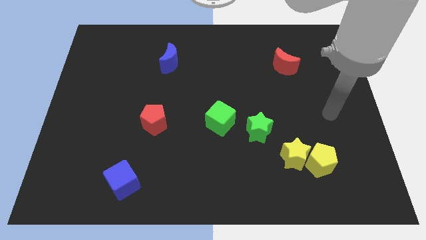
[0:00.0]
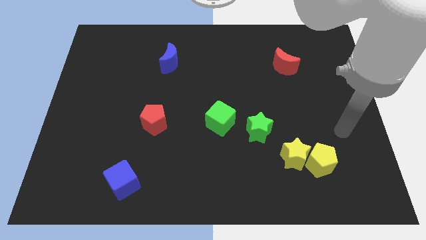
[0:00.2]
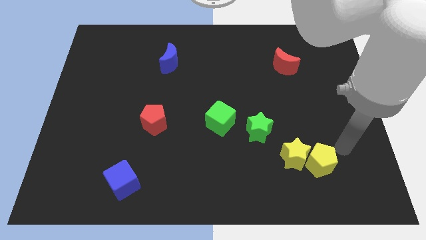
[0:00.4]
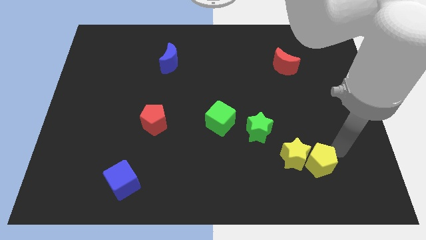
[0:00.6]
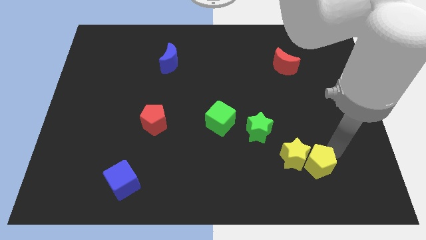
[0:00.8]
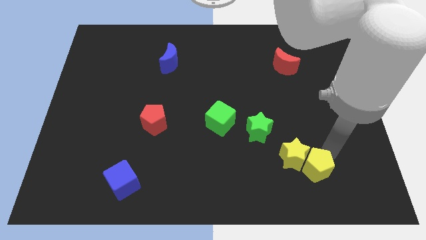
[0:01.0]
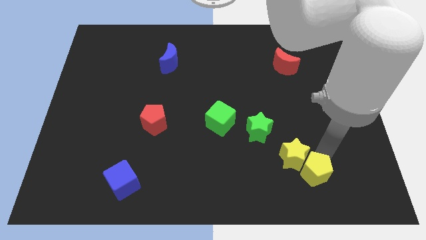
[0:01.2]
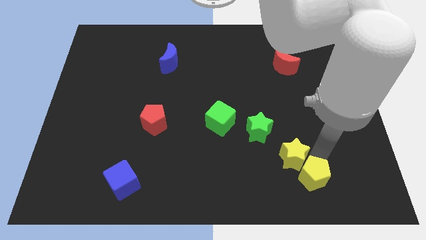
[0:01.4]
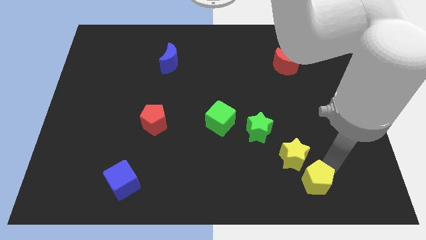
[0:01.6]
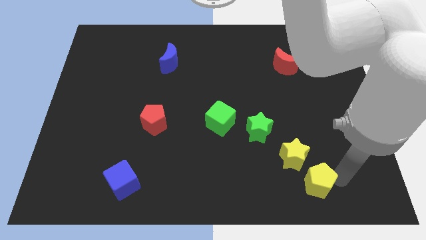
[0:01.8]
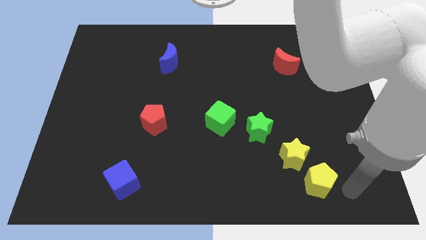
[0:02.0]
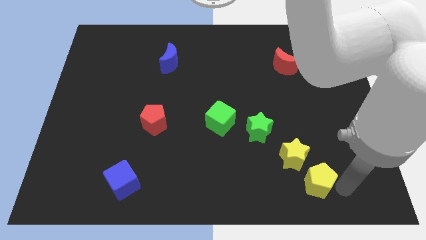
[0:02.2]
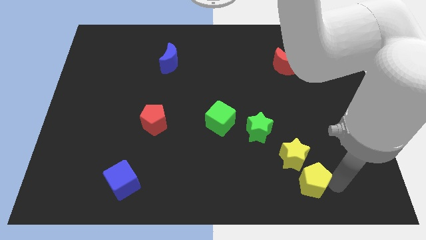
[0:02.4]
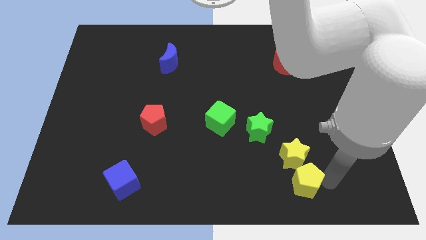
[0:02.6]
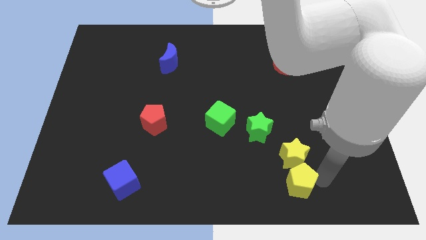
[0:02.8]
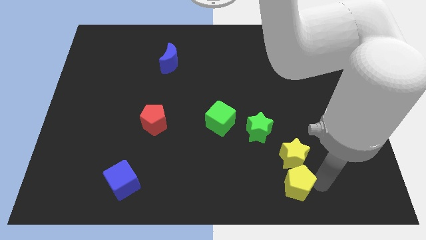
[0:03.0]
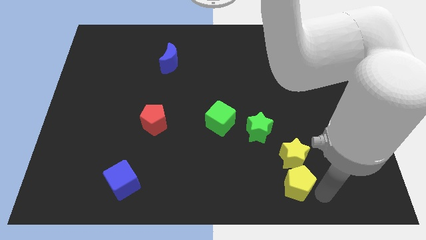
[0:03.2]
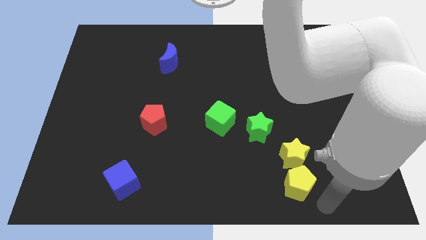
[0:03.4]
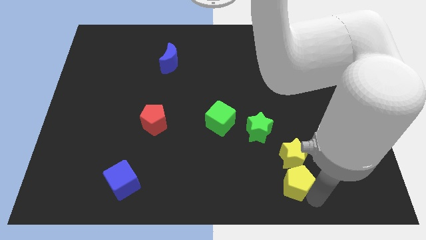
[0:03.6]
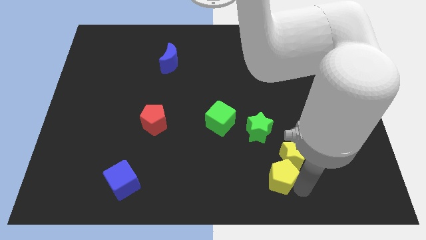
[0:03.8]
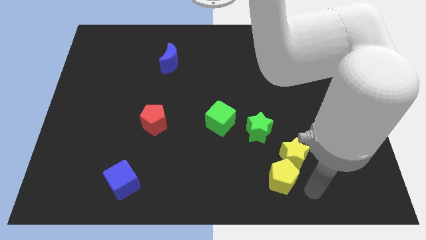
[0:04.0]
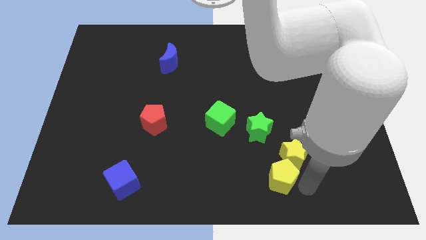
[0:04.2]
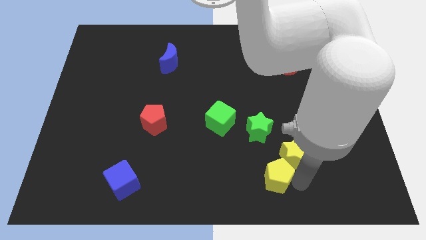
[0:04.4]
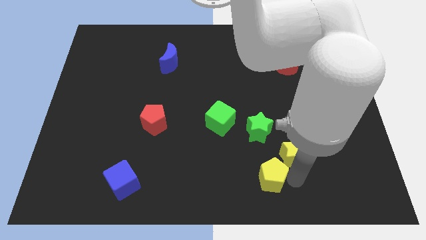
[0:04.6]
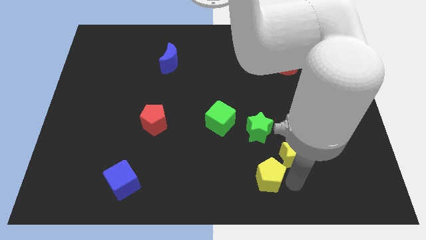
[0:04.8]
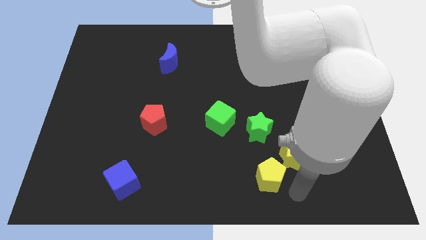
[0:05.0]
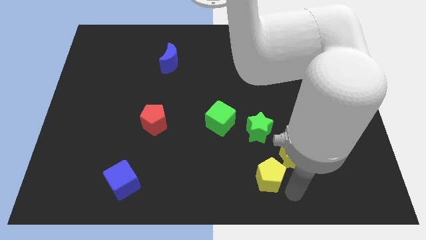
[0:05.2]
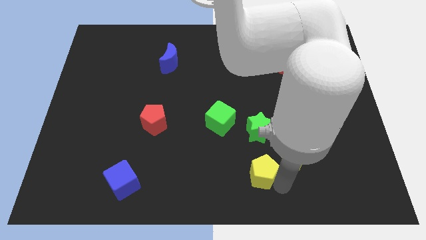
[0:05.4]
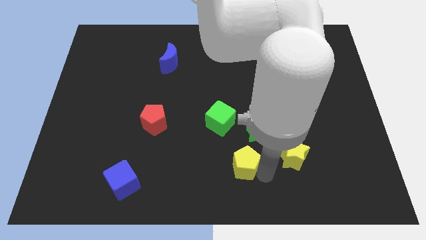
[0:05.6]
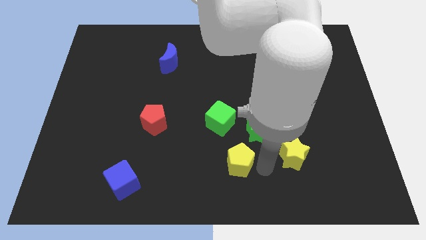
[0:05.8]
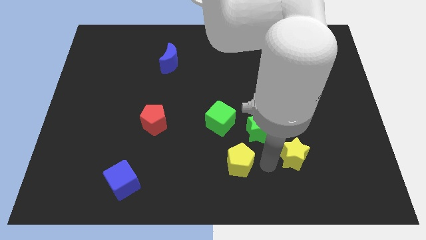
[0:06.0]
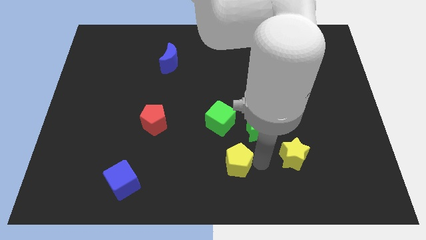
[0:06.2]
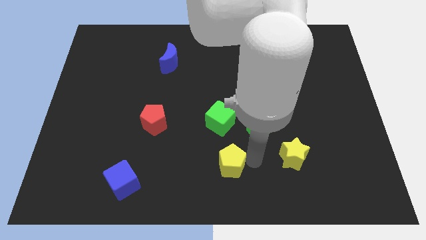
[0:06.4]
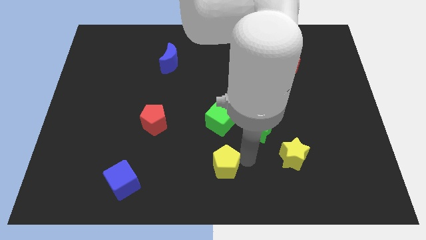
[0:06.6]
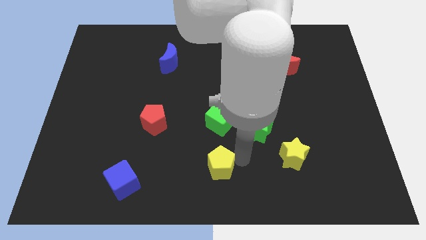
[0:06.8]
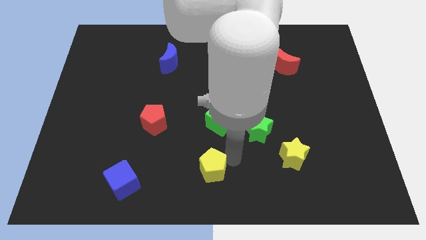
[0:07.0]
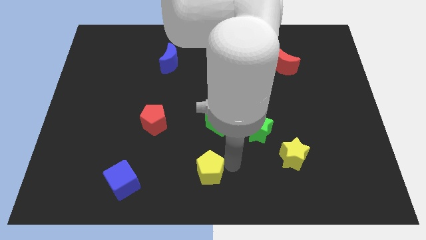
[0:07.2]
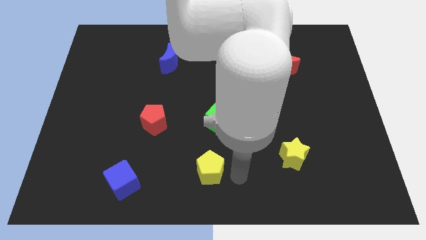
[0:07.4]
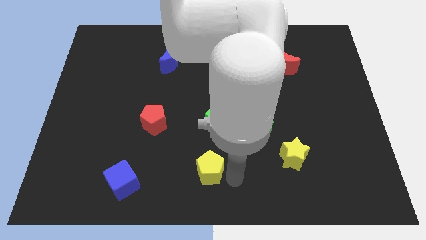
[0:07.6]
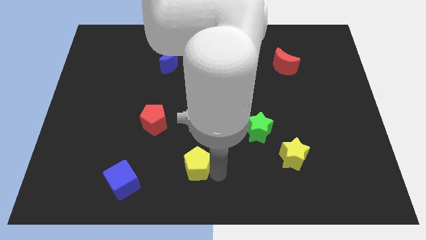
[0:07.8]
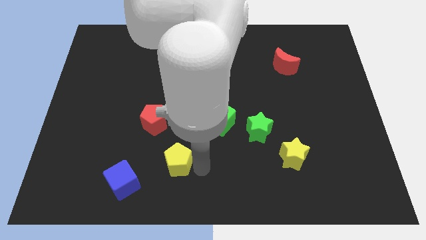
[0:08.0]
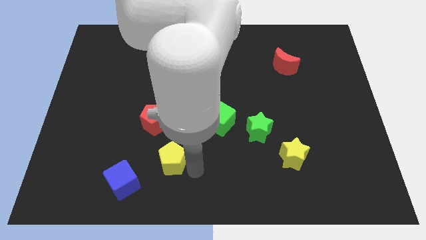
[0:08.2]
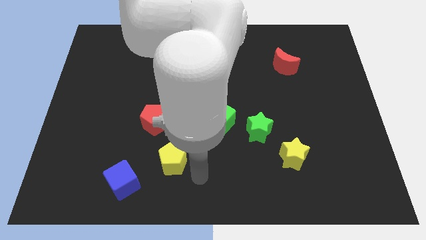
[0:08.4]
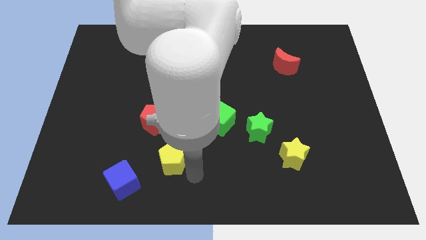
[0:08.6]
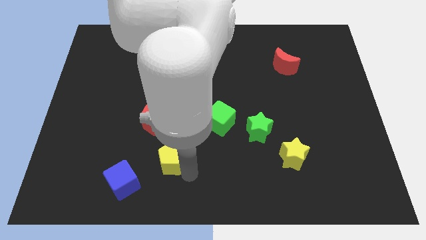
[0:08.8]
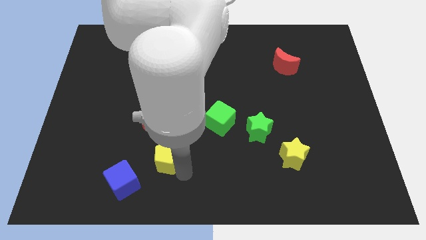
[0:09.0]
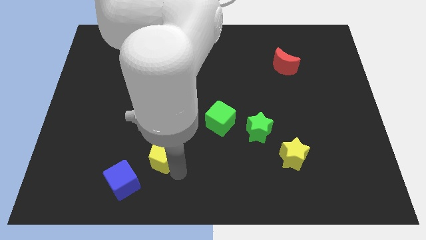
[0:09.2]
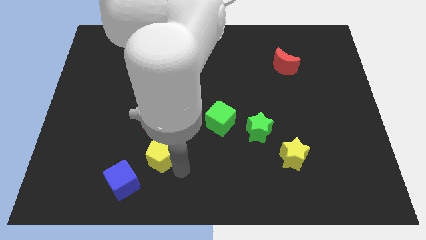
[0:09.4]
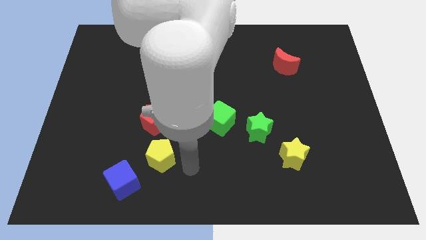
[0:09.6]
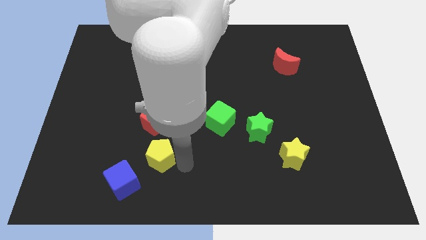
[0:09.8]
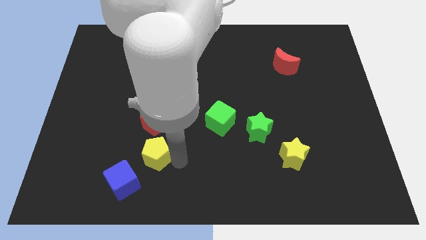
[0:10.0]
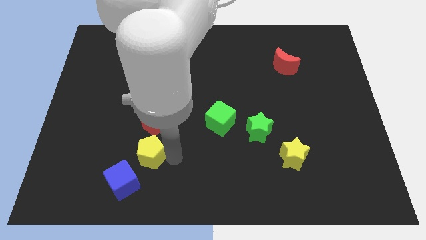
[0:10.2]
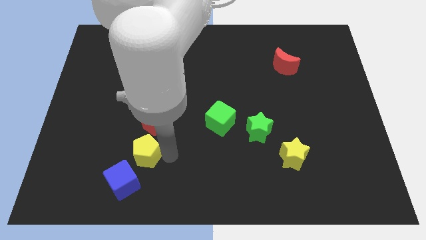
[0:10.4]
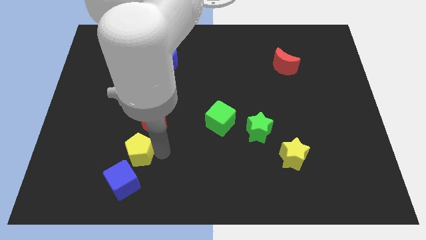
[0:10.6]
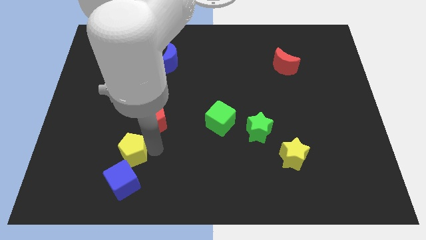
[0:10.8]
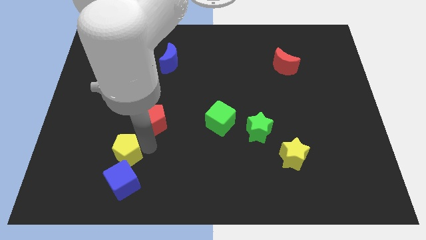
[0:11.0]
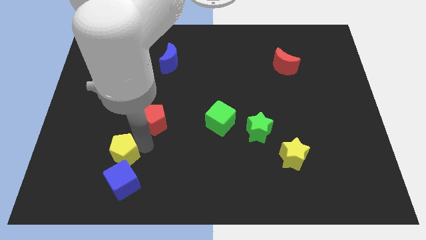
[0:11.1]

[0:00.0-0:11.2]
push the yellow pentagon to the top left side of the blue cube

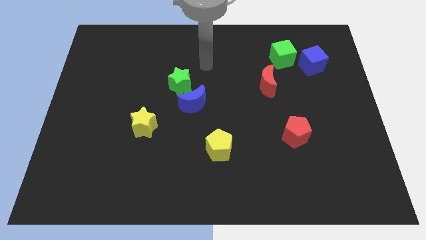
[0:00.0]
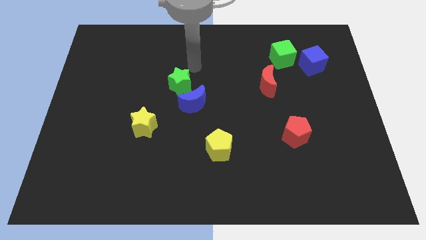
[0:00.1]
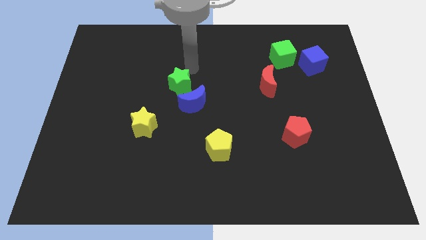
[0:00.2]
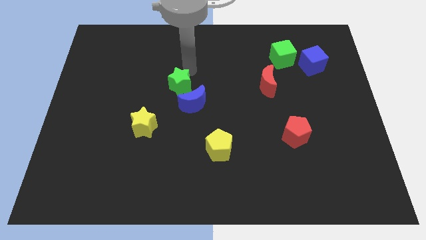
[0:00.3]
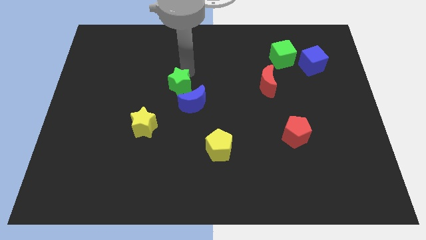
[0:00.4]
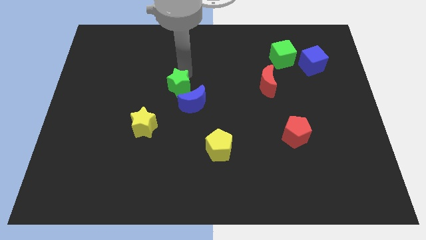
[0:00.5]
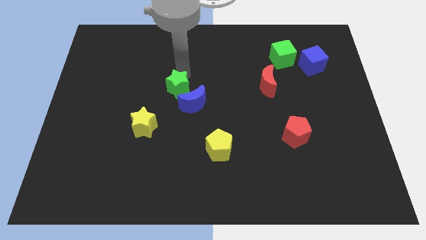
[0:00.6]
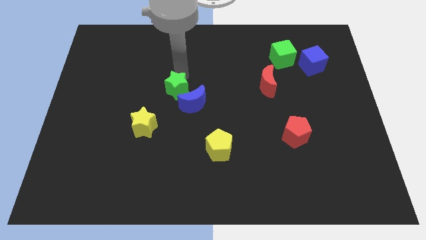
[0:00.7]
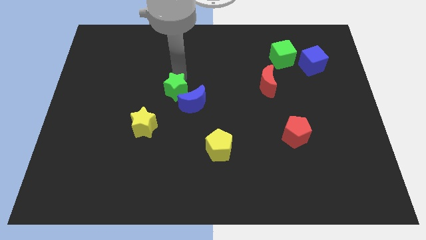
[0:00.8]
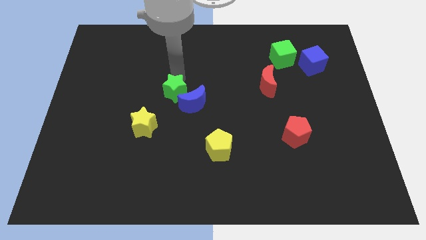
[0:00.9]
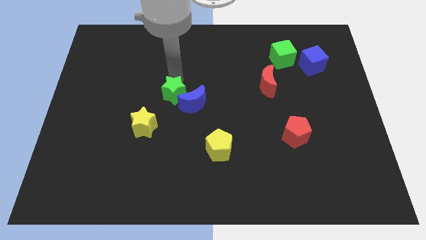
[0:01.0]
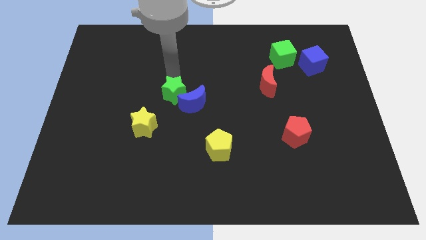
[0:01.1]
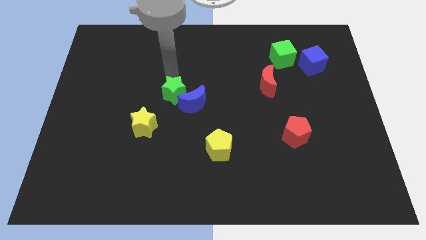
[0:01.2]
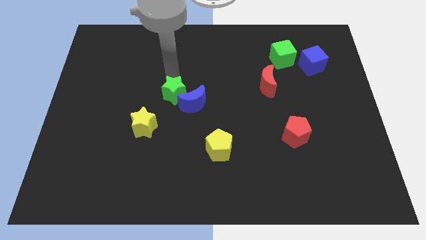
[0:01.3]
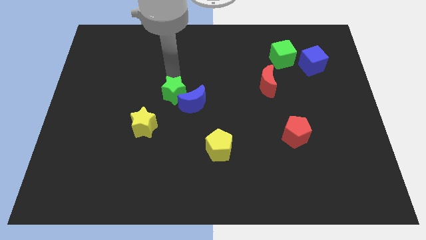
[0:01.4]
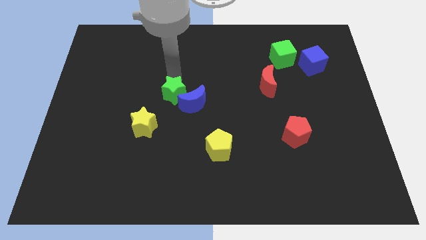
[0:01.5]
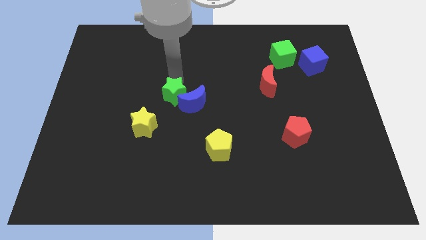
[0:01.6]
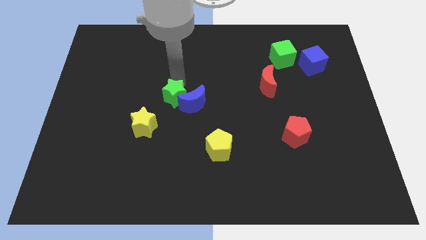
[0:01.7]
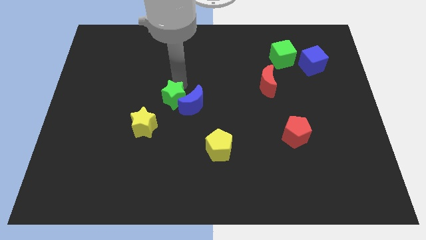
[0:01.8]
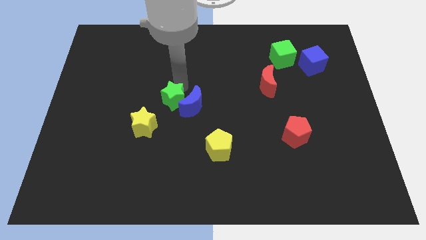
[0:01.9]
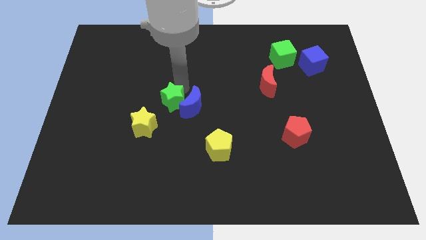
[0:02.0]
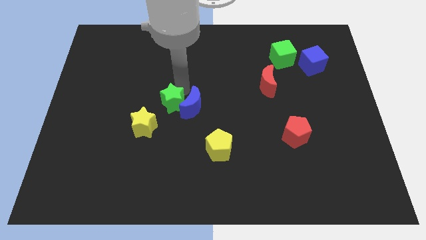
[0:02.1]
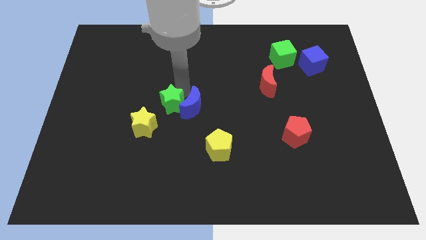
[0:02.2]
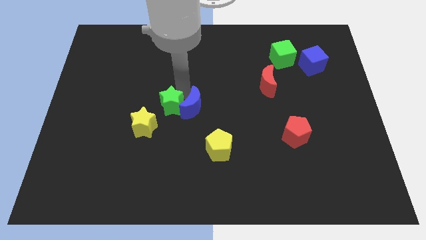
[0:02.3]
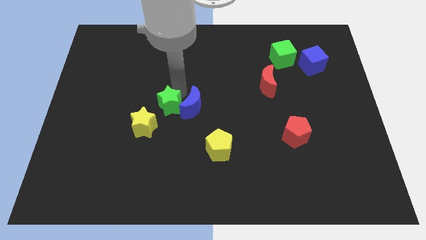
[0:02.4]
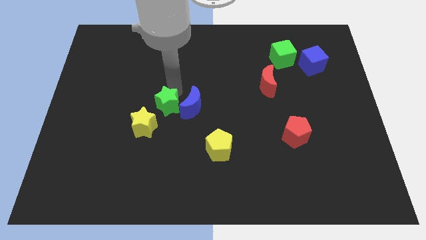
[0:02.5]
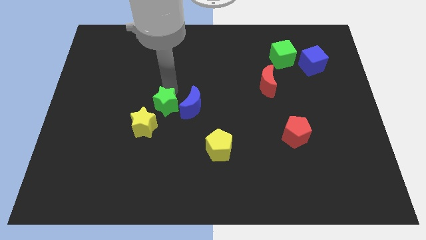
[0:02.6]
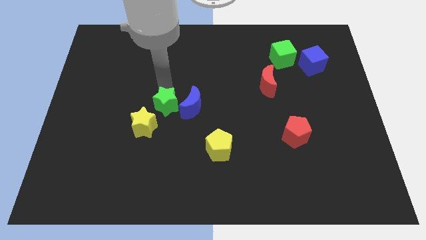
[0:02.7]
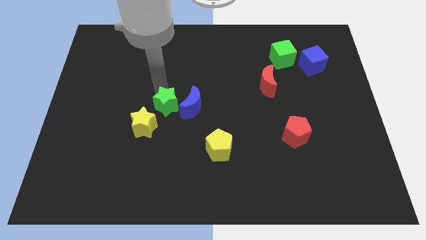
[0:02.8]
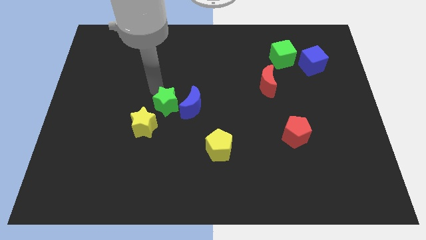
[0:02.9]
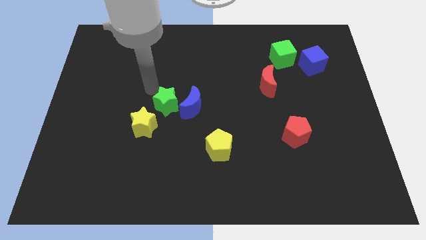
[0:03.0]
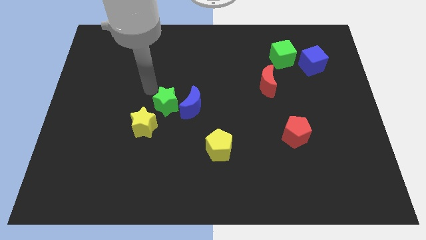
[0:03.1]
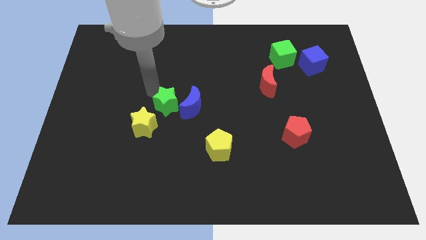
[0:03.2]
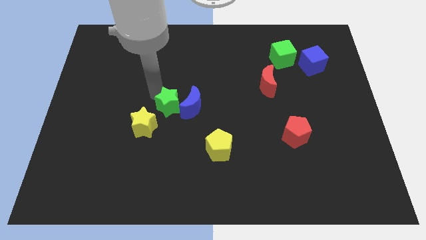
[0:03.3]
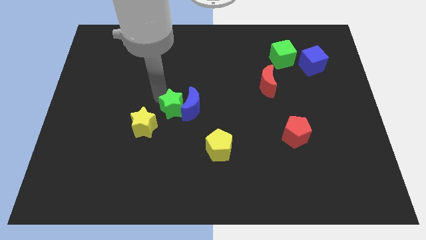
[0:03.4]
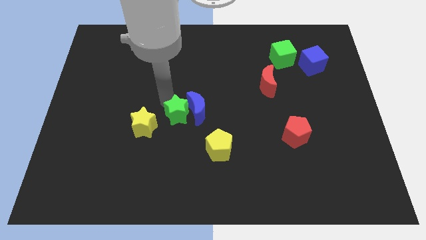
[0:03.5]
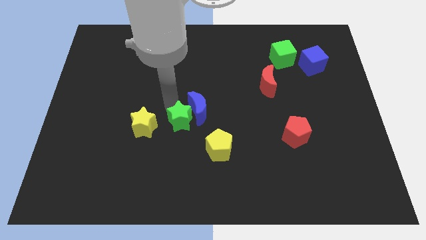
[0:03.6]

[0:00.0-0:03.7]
put the green star diagonally up and to the left of the yellow pentagon
